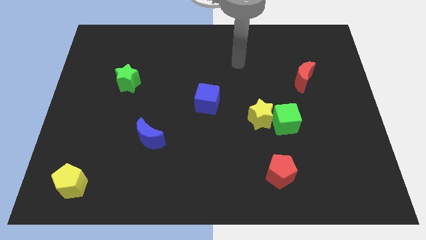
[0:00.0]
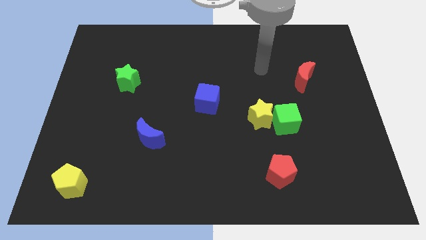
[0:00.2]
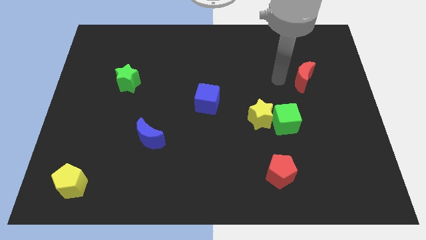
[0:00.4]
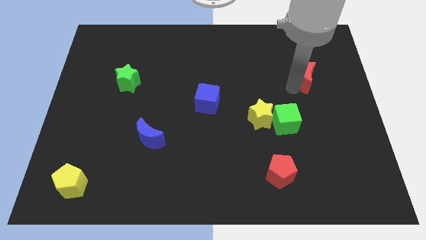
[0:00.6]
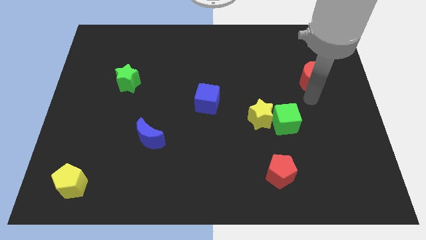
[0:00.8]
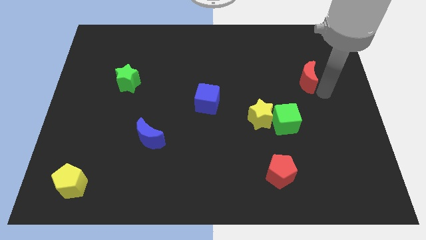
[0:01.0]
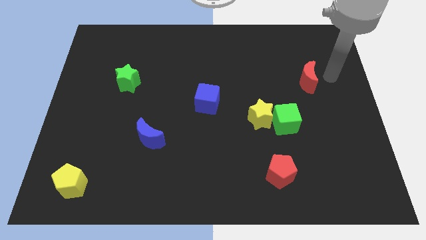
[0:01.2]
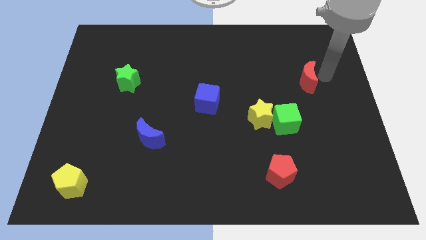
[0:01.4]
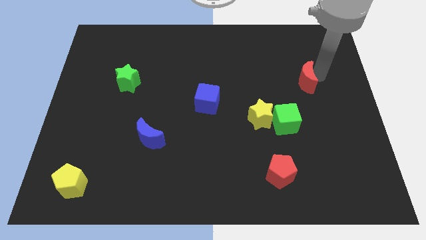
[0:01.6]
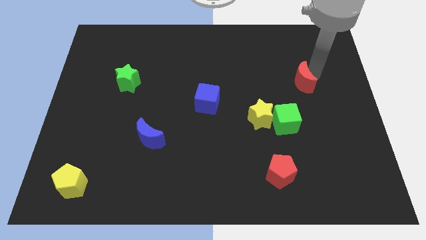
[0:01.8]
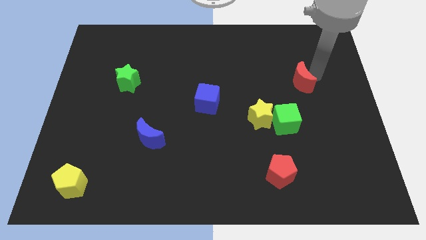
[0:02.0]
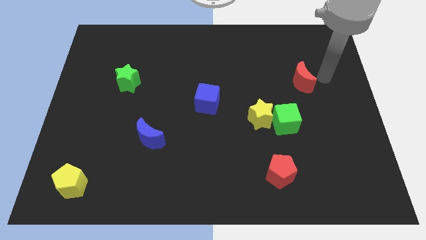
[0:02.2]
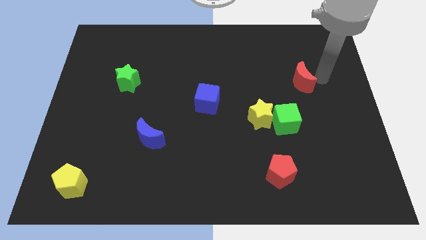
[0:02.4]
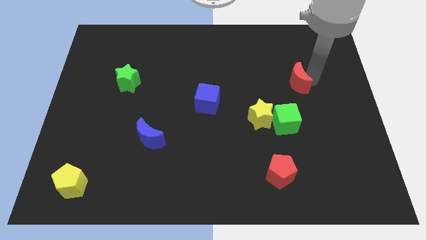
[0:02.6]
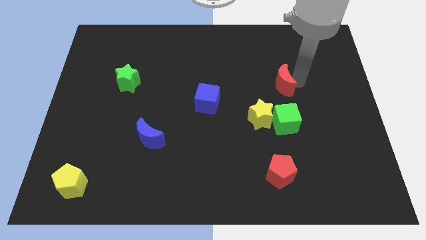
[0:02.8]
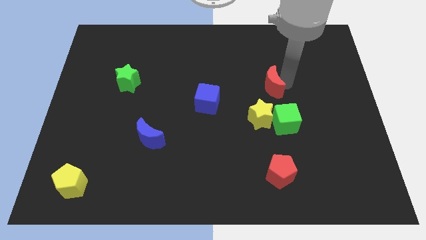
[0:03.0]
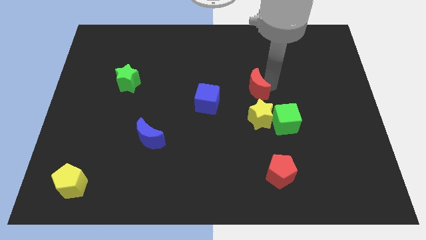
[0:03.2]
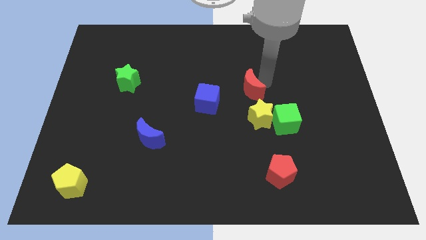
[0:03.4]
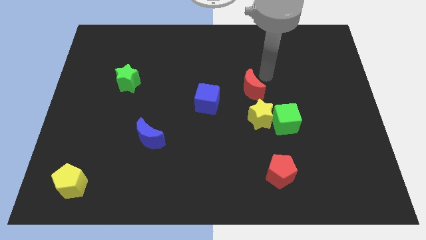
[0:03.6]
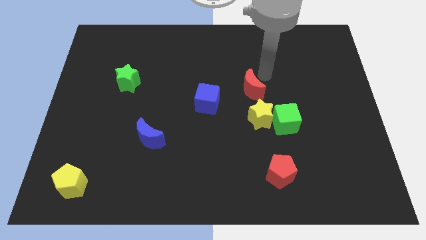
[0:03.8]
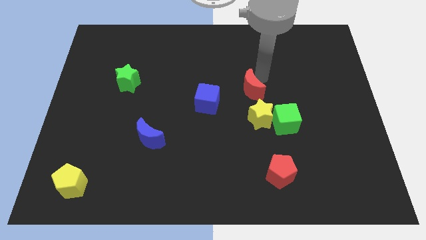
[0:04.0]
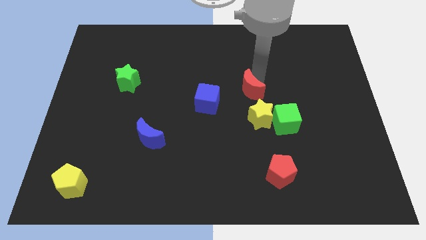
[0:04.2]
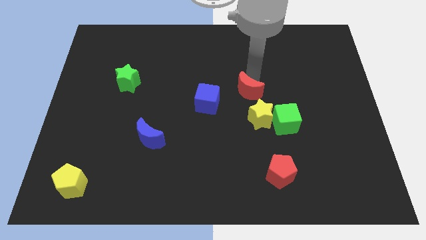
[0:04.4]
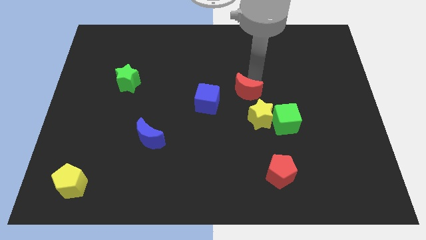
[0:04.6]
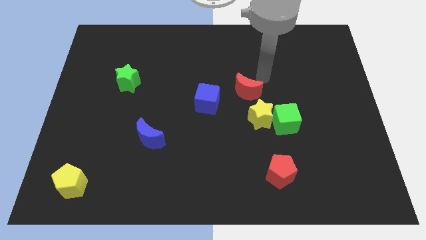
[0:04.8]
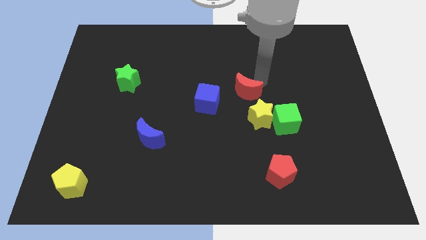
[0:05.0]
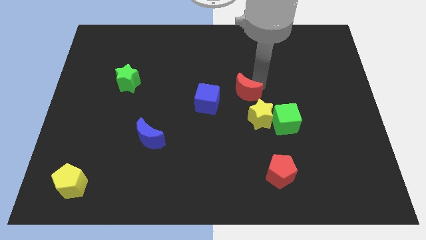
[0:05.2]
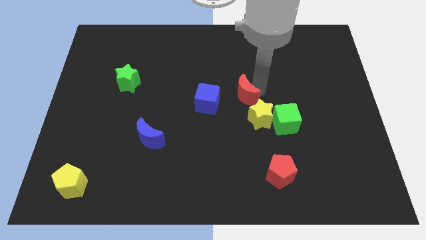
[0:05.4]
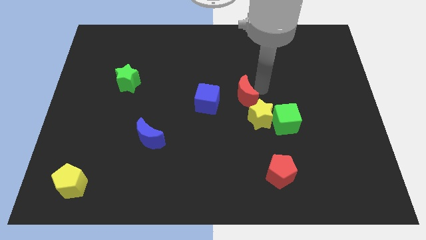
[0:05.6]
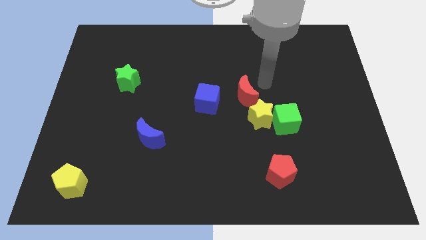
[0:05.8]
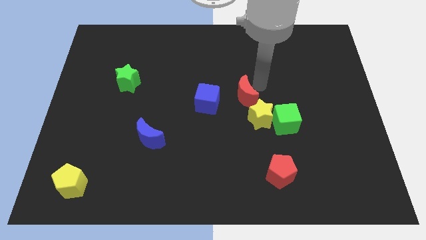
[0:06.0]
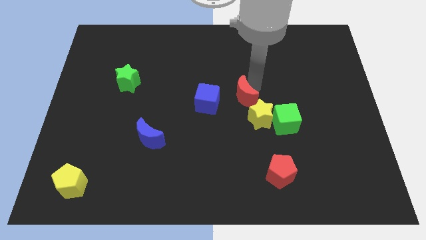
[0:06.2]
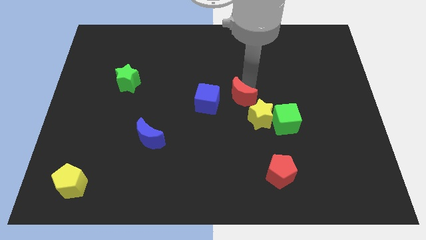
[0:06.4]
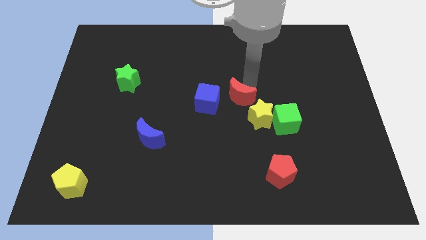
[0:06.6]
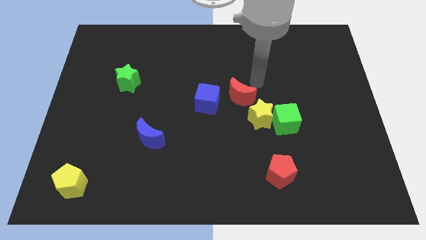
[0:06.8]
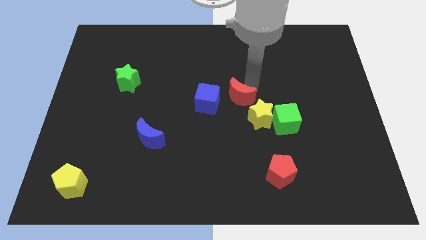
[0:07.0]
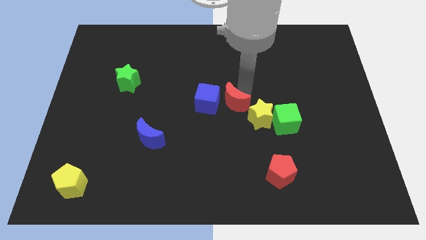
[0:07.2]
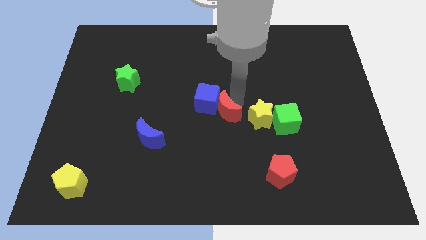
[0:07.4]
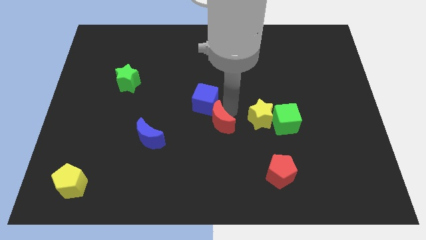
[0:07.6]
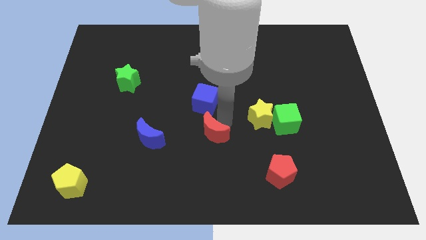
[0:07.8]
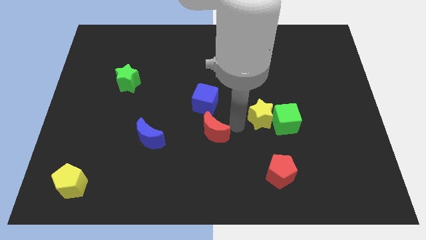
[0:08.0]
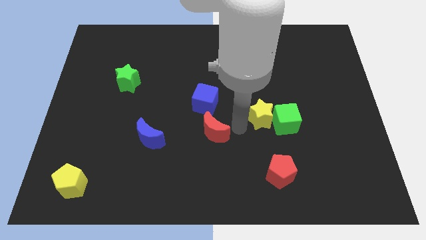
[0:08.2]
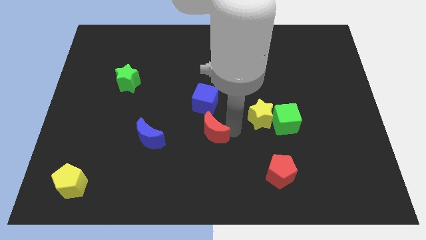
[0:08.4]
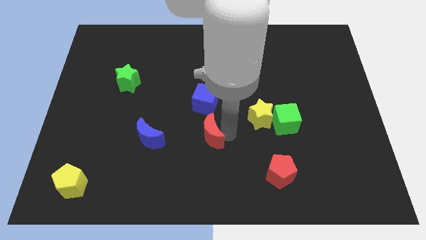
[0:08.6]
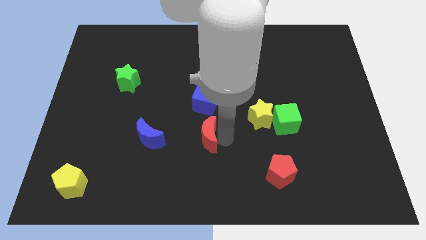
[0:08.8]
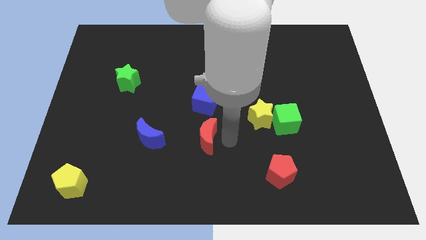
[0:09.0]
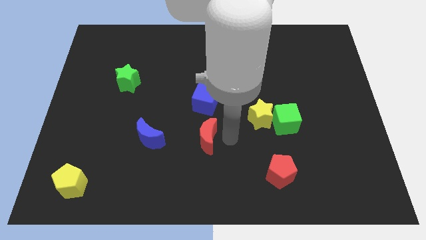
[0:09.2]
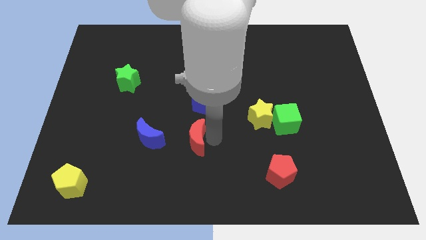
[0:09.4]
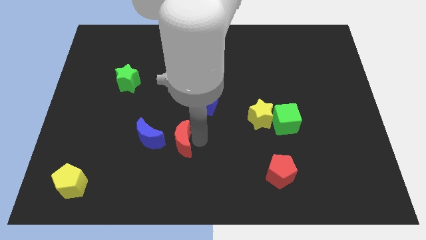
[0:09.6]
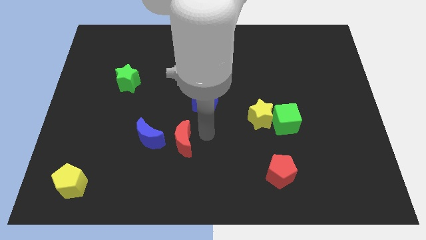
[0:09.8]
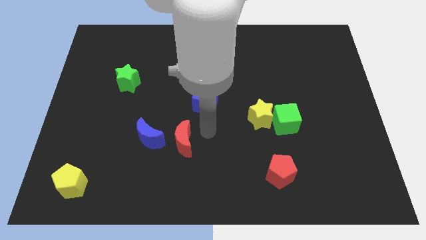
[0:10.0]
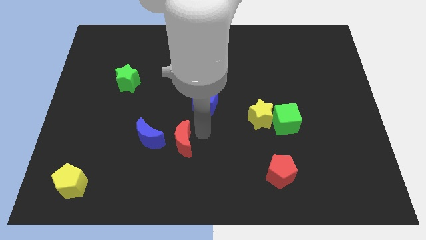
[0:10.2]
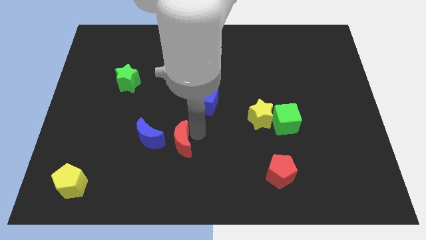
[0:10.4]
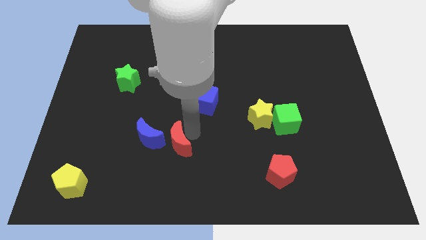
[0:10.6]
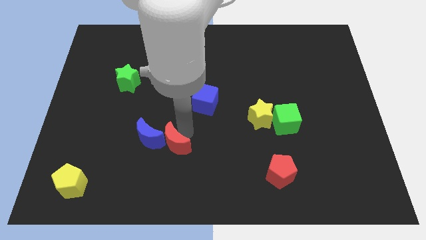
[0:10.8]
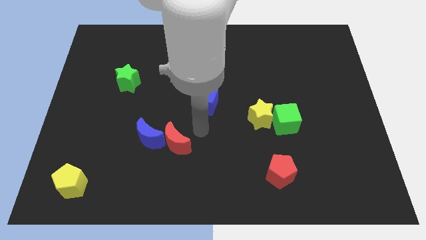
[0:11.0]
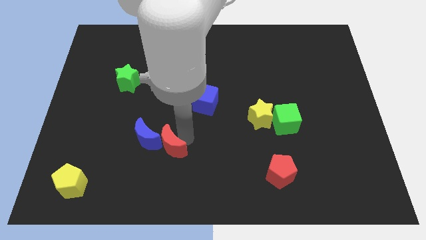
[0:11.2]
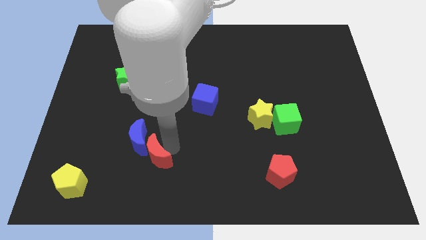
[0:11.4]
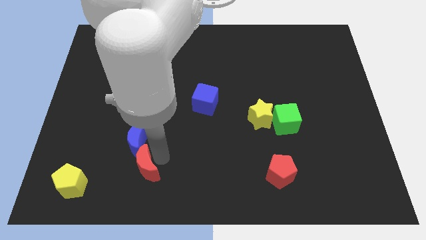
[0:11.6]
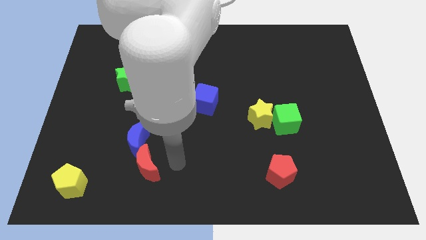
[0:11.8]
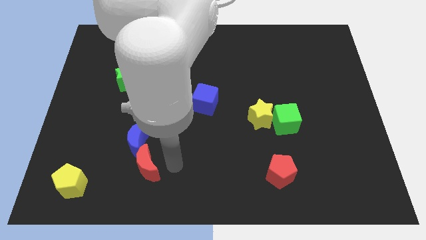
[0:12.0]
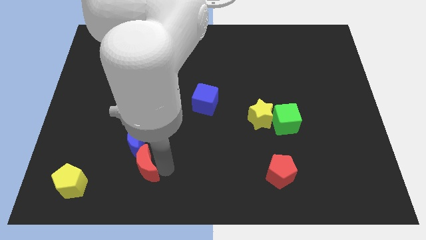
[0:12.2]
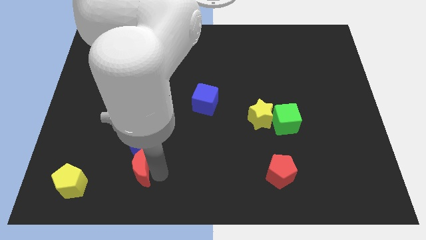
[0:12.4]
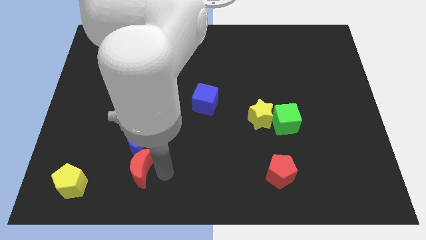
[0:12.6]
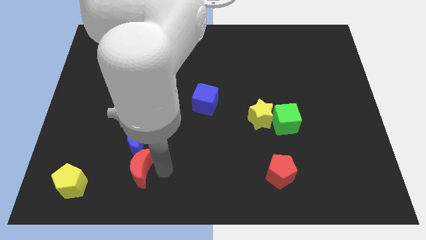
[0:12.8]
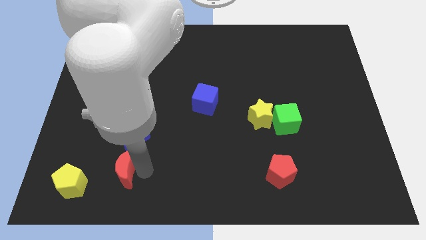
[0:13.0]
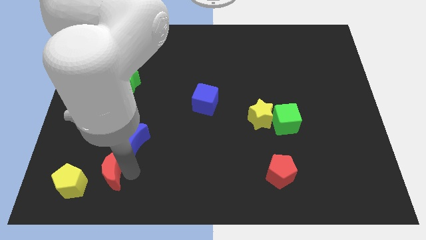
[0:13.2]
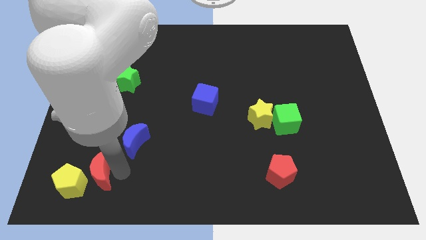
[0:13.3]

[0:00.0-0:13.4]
push the red moon next to the yellow pentagon
